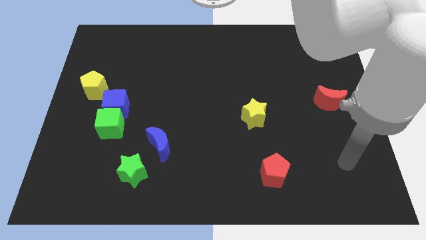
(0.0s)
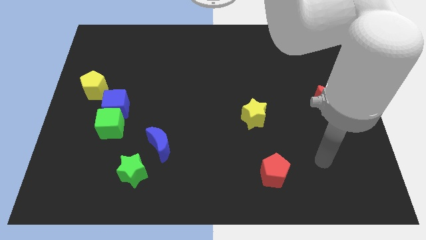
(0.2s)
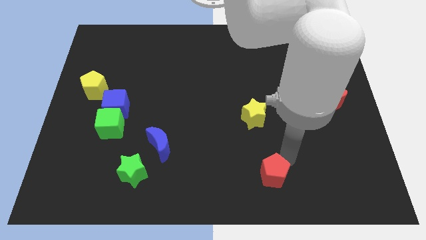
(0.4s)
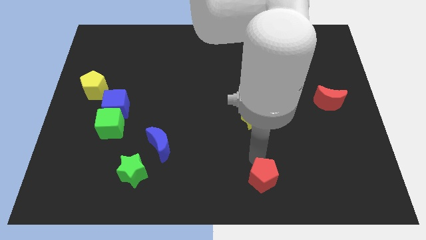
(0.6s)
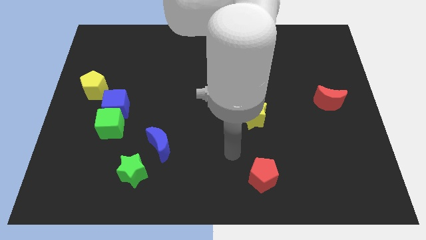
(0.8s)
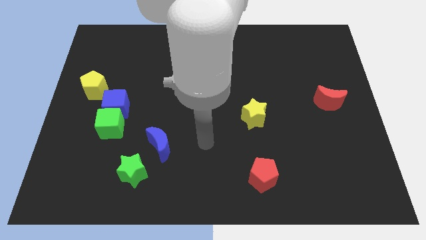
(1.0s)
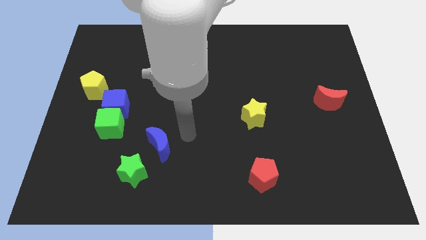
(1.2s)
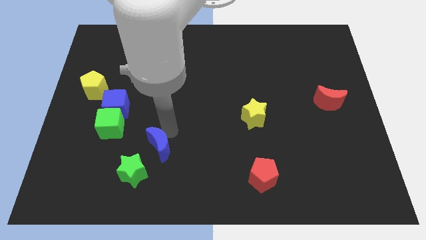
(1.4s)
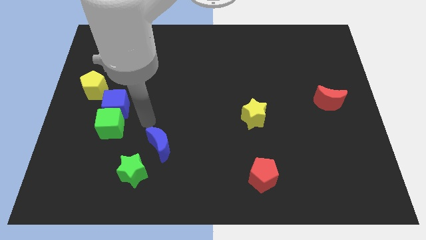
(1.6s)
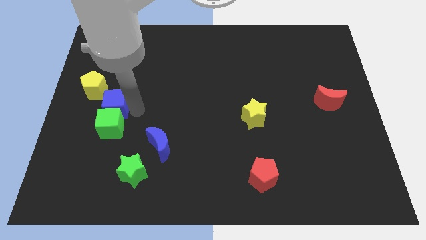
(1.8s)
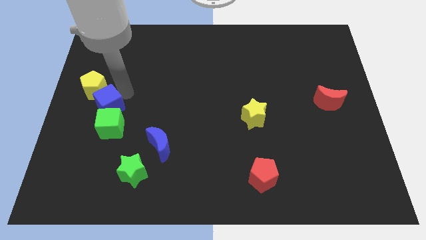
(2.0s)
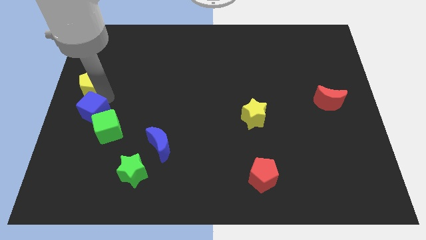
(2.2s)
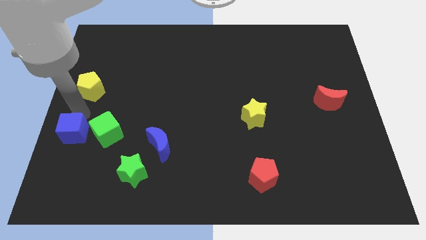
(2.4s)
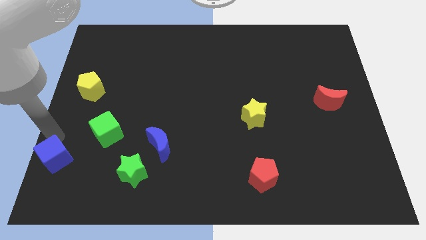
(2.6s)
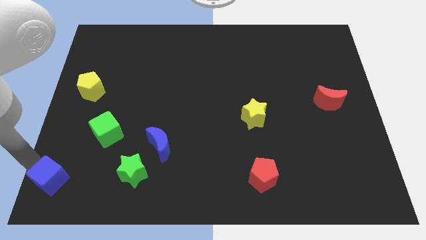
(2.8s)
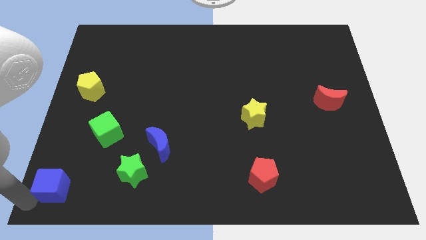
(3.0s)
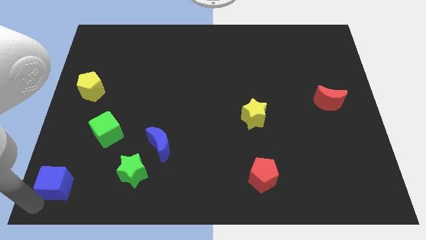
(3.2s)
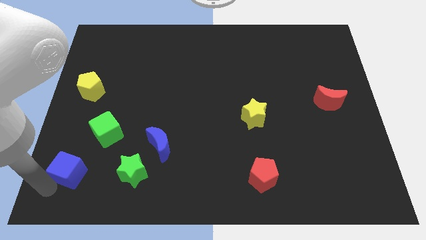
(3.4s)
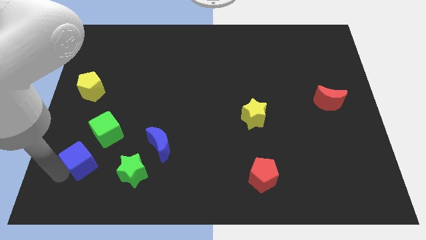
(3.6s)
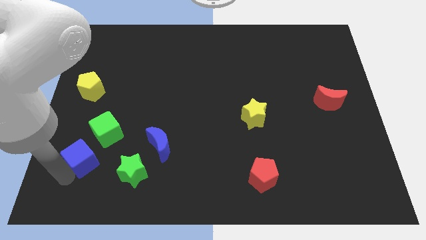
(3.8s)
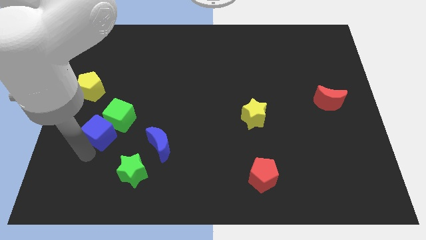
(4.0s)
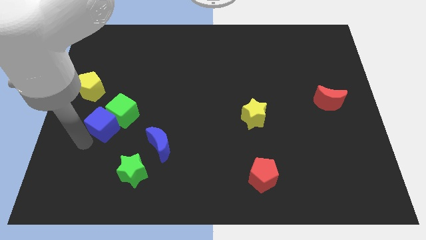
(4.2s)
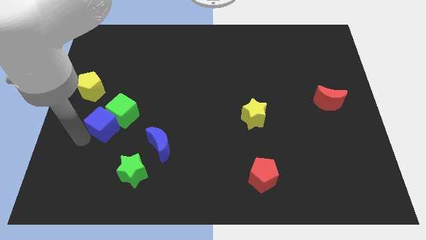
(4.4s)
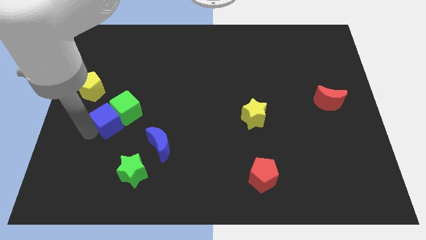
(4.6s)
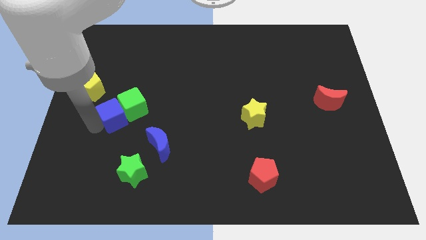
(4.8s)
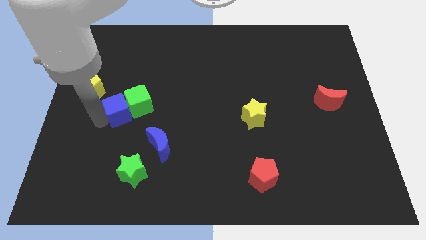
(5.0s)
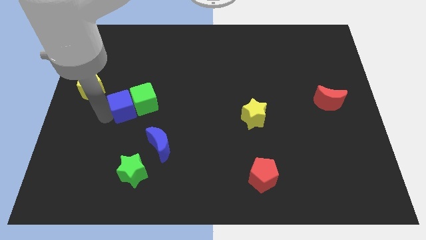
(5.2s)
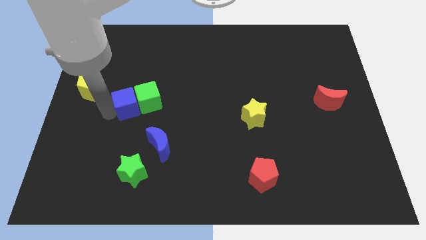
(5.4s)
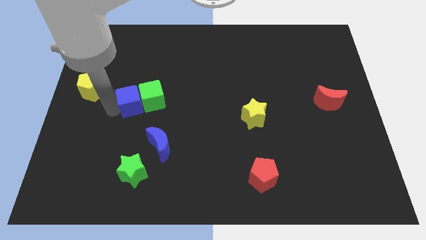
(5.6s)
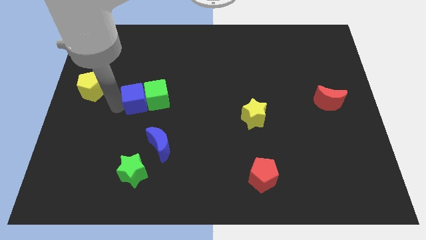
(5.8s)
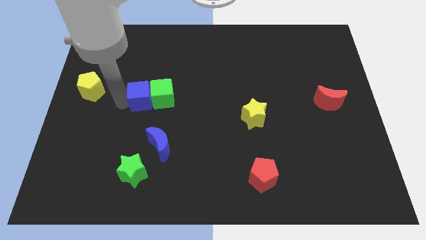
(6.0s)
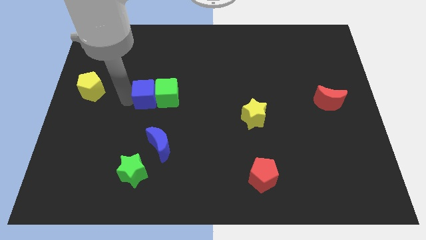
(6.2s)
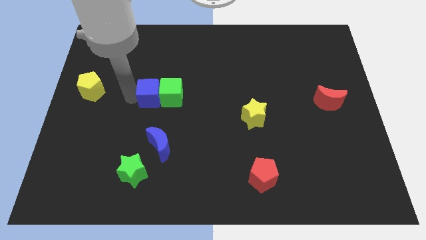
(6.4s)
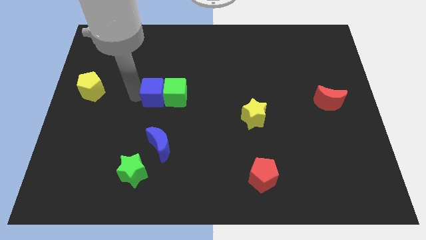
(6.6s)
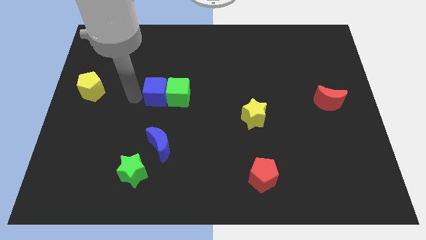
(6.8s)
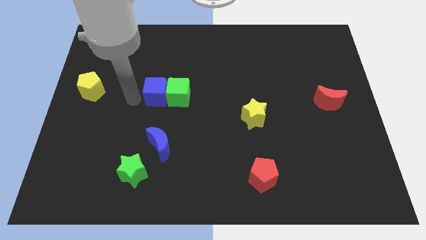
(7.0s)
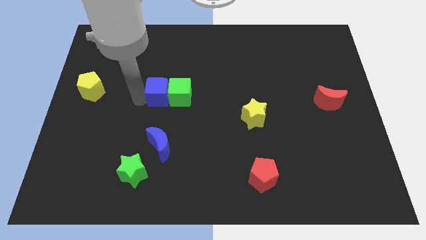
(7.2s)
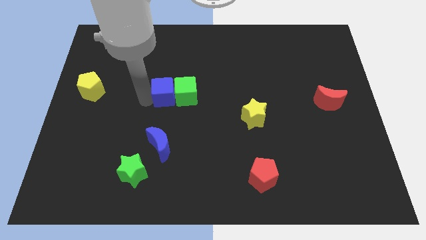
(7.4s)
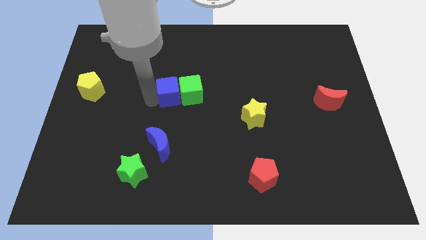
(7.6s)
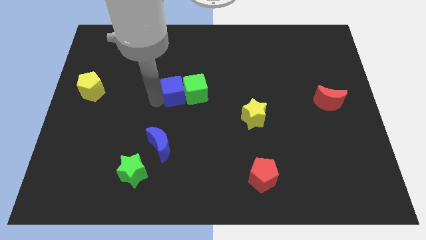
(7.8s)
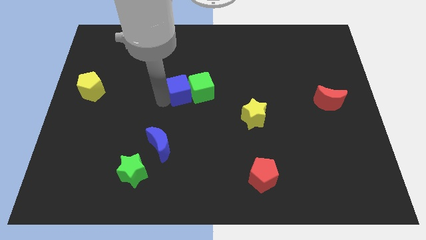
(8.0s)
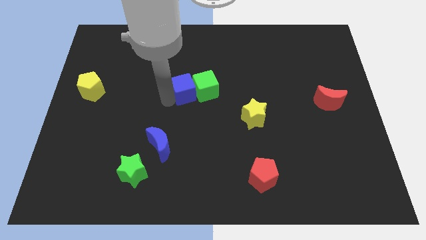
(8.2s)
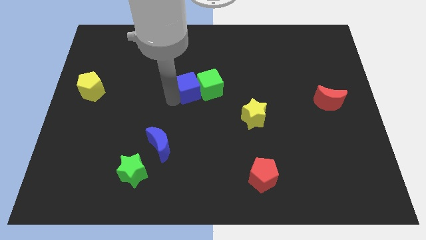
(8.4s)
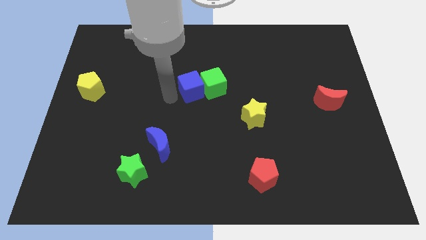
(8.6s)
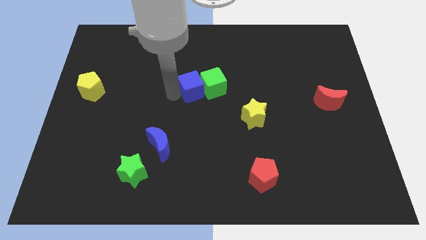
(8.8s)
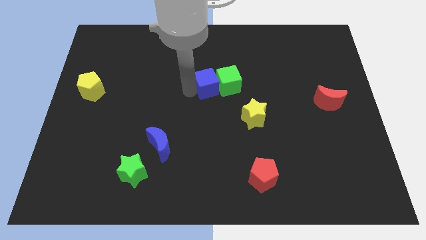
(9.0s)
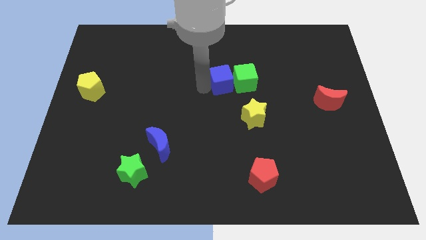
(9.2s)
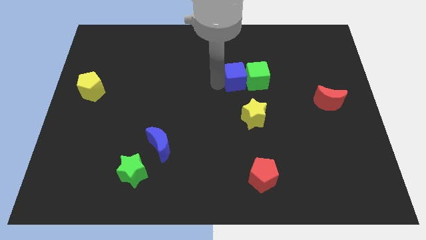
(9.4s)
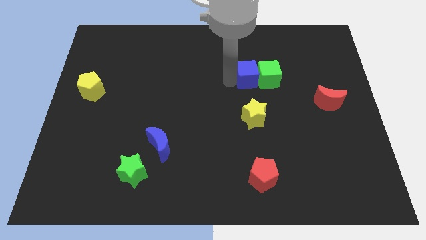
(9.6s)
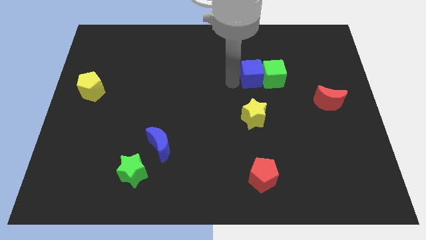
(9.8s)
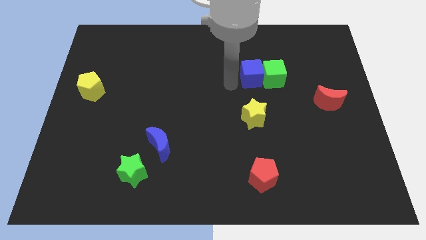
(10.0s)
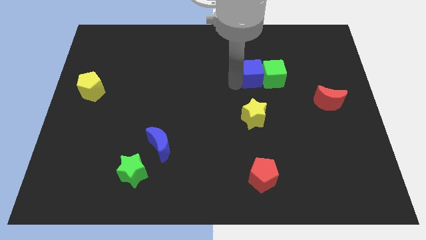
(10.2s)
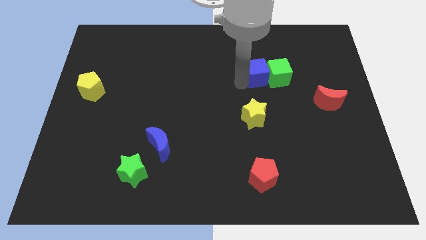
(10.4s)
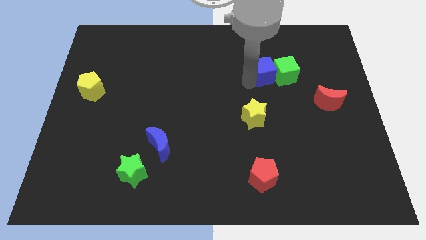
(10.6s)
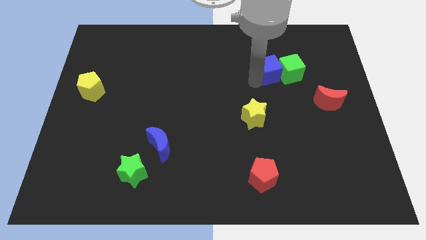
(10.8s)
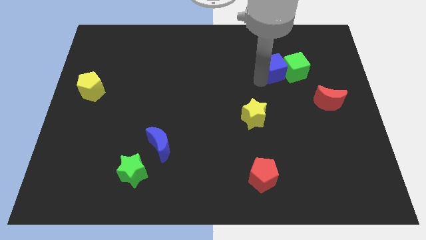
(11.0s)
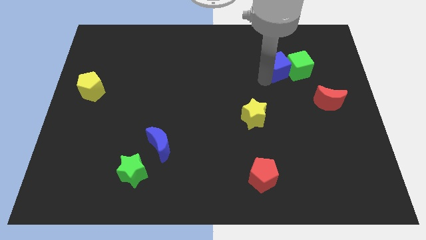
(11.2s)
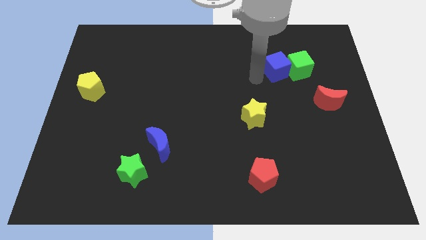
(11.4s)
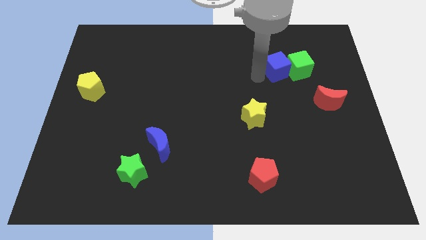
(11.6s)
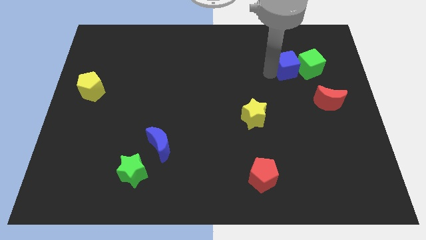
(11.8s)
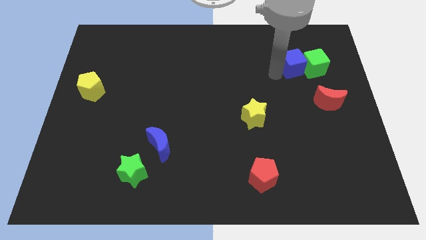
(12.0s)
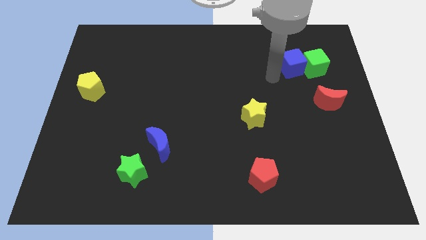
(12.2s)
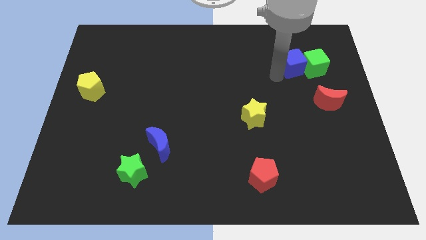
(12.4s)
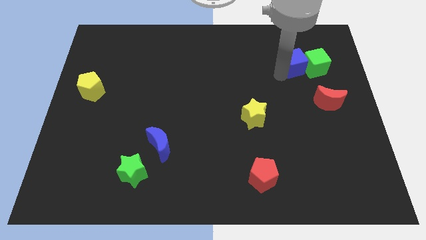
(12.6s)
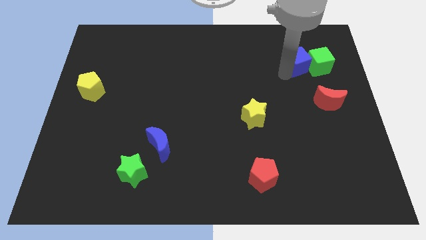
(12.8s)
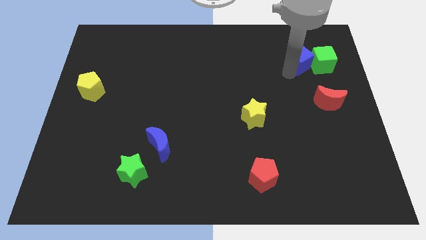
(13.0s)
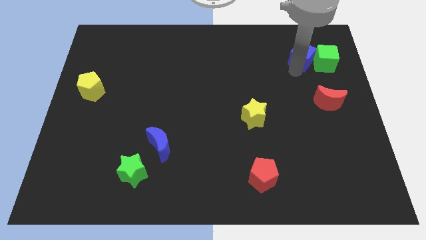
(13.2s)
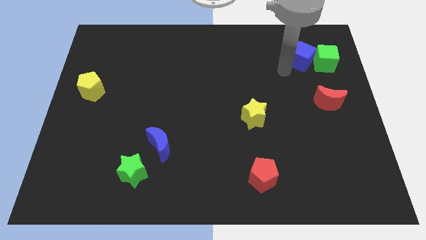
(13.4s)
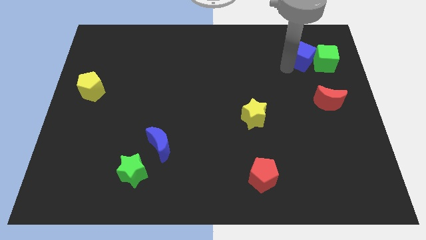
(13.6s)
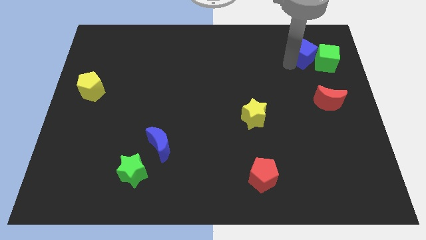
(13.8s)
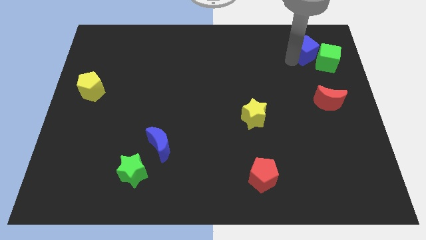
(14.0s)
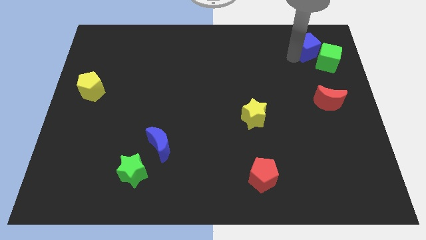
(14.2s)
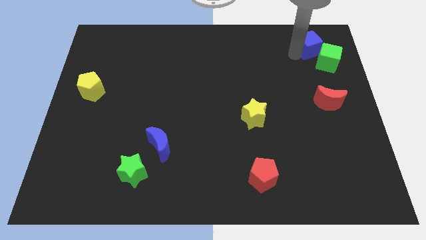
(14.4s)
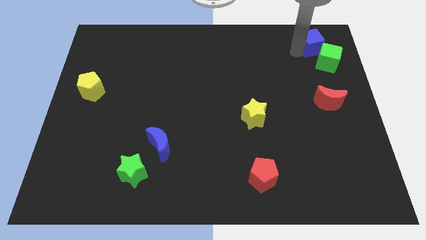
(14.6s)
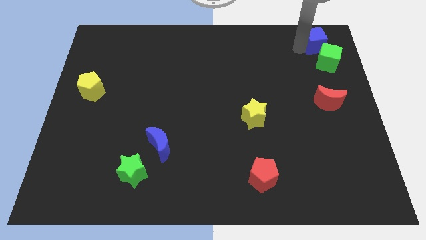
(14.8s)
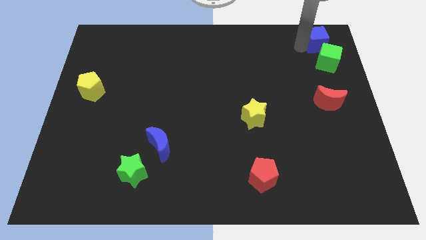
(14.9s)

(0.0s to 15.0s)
slide the blue cube to the top right
